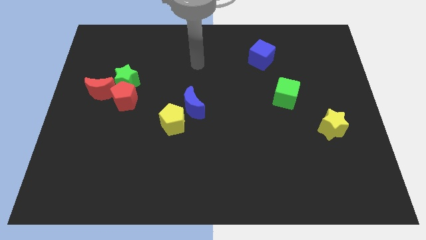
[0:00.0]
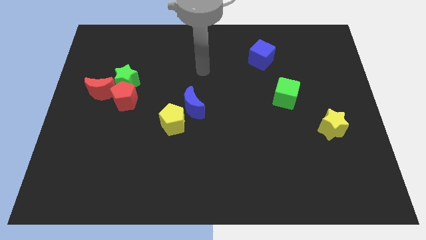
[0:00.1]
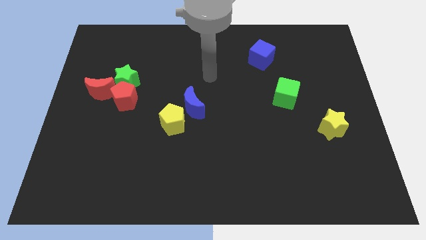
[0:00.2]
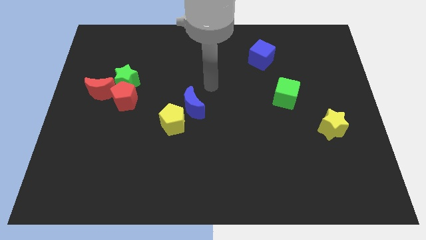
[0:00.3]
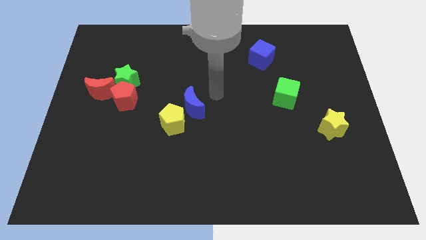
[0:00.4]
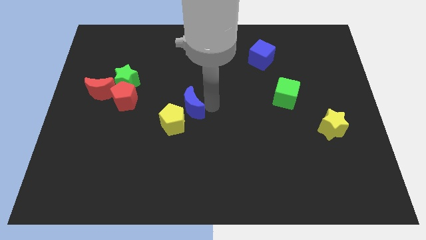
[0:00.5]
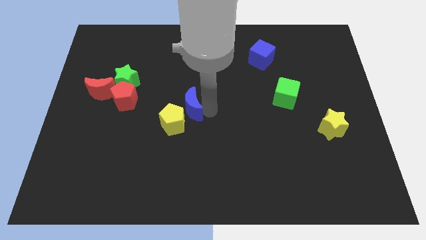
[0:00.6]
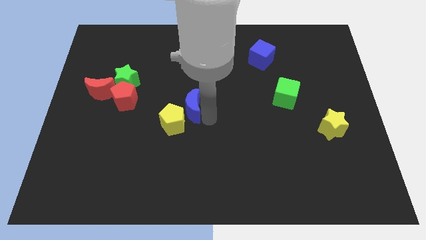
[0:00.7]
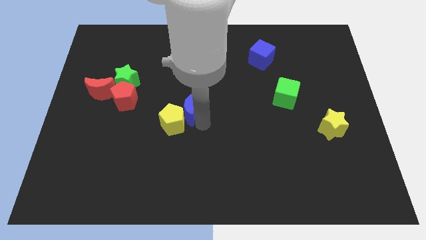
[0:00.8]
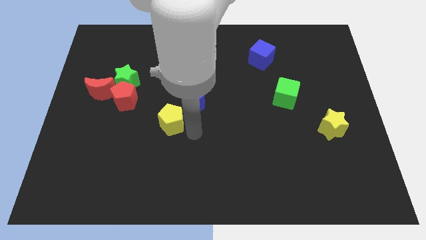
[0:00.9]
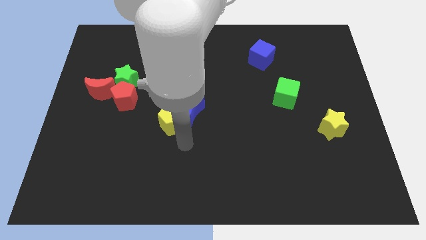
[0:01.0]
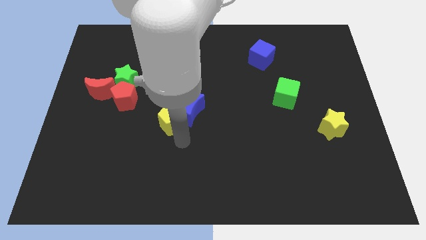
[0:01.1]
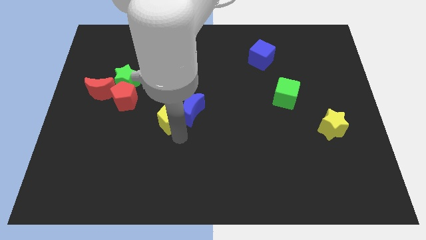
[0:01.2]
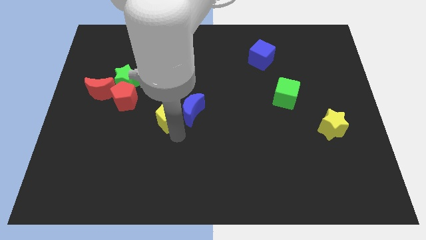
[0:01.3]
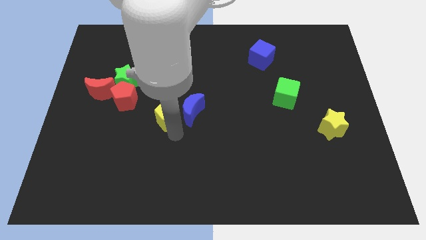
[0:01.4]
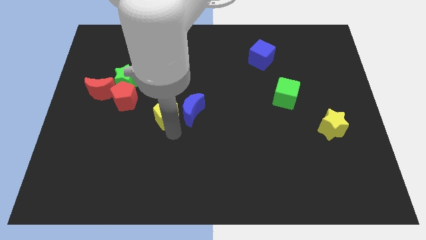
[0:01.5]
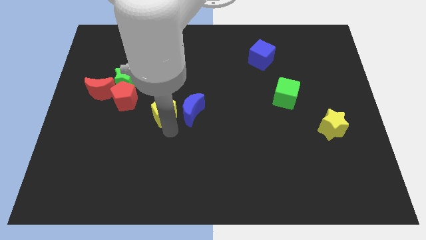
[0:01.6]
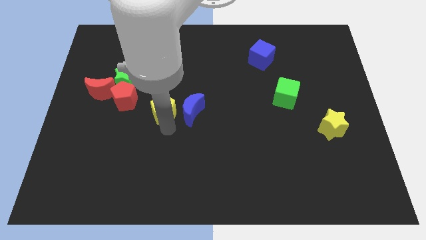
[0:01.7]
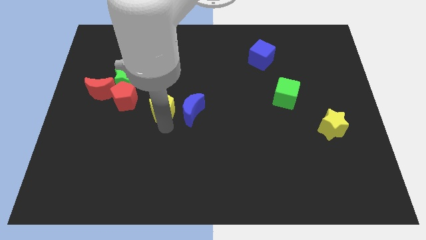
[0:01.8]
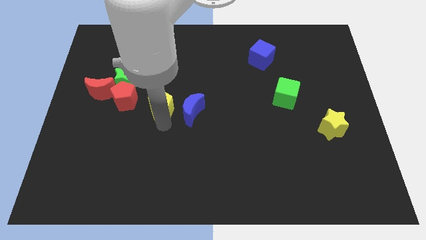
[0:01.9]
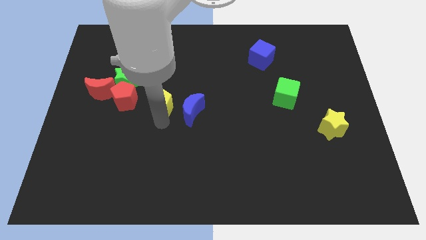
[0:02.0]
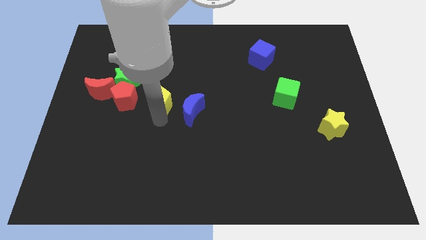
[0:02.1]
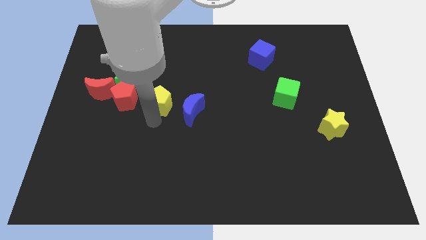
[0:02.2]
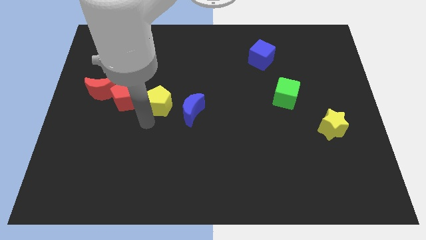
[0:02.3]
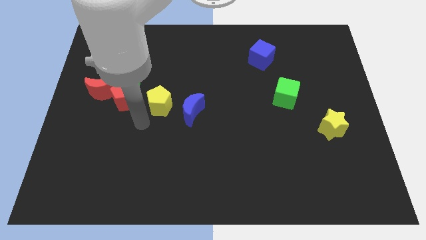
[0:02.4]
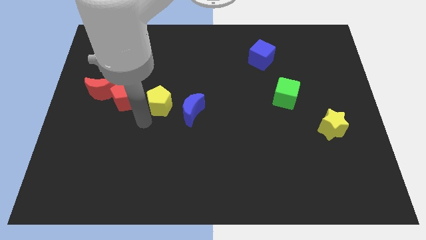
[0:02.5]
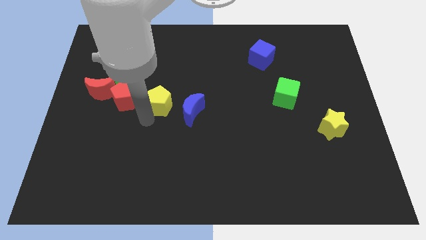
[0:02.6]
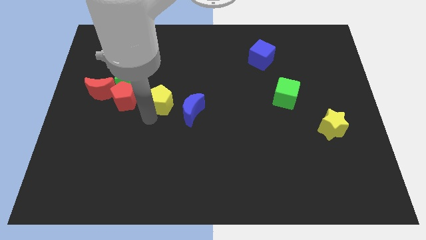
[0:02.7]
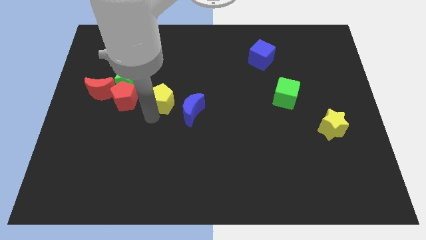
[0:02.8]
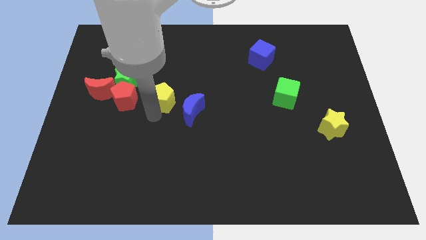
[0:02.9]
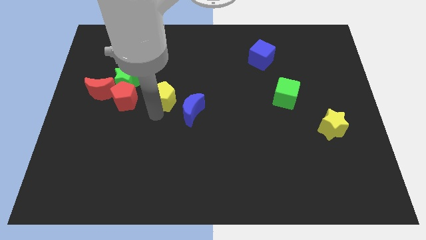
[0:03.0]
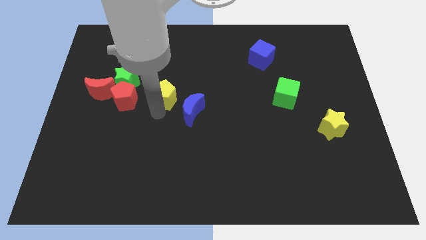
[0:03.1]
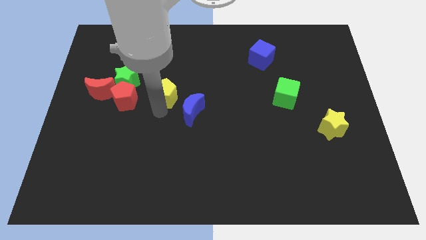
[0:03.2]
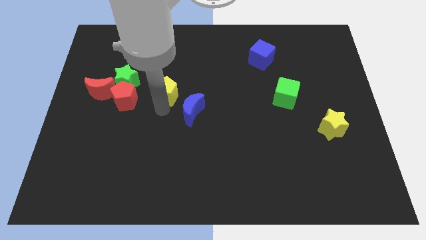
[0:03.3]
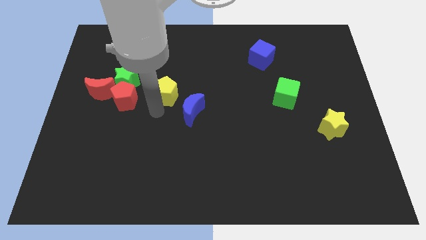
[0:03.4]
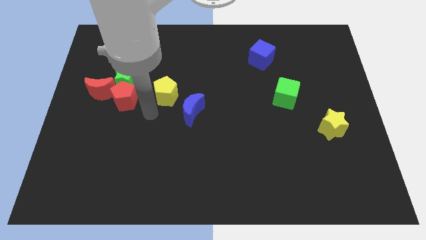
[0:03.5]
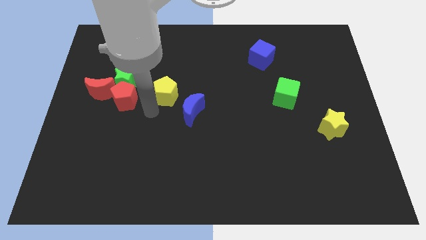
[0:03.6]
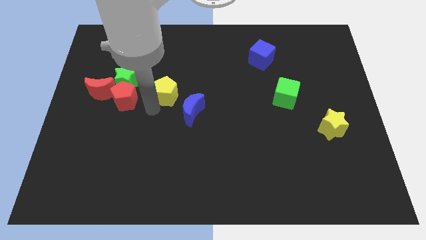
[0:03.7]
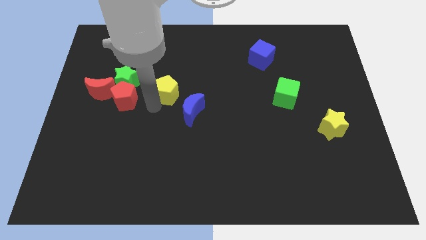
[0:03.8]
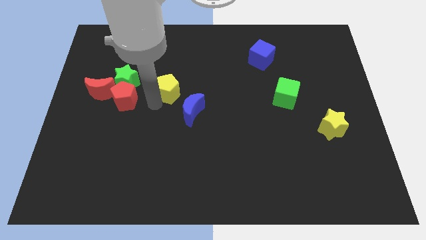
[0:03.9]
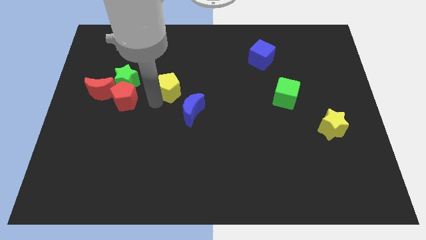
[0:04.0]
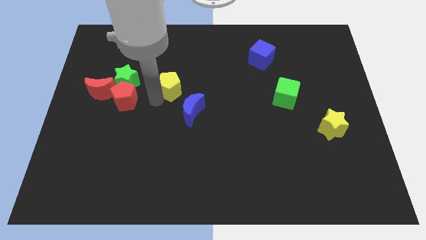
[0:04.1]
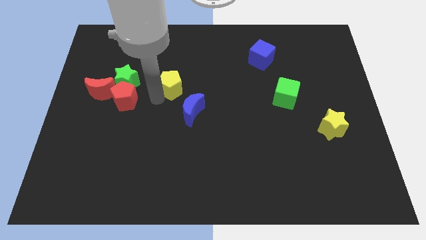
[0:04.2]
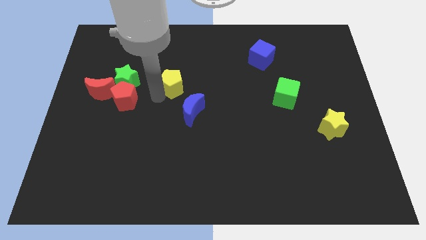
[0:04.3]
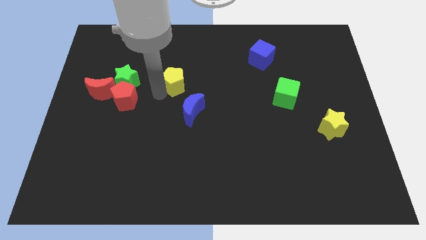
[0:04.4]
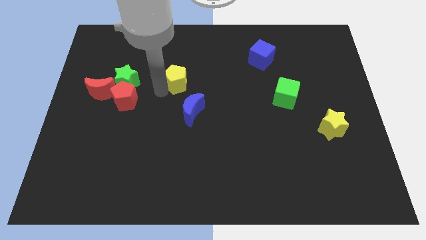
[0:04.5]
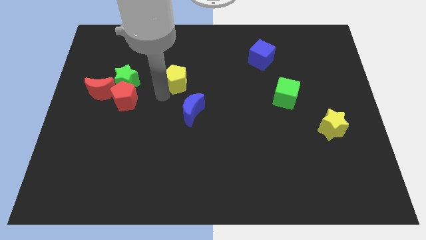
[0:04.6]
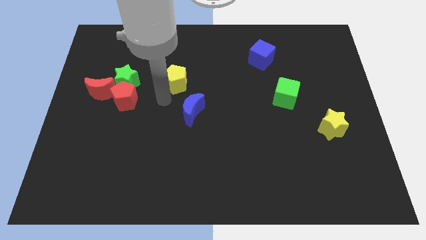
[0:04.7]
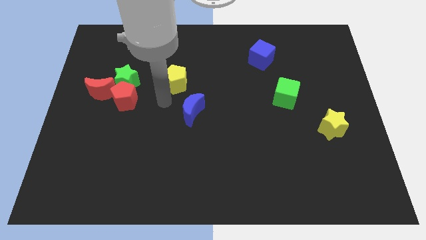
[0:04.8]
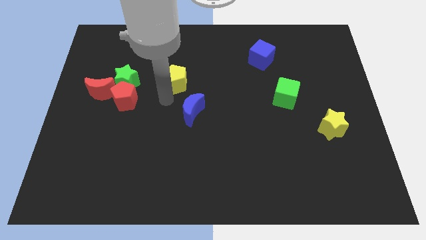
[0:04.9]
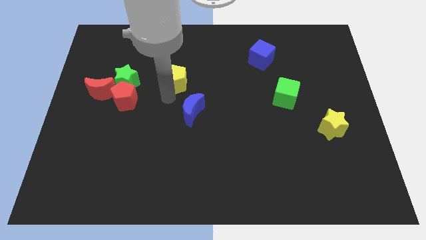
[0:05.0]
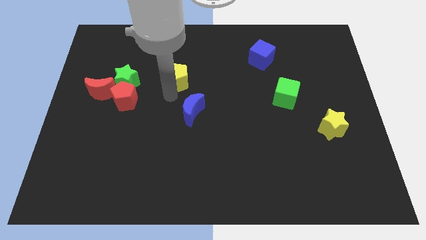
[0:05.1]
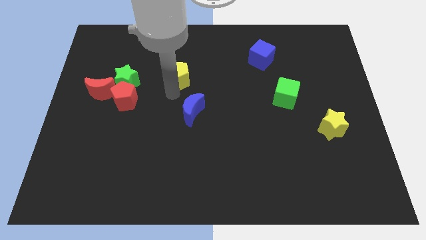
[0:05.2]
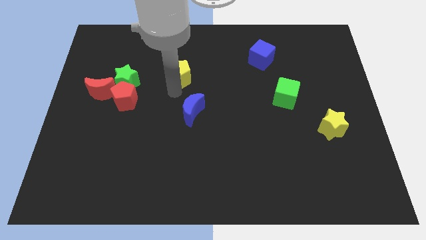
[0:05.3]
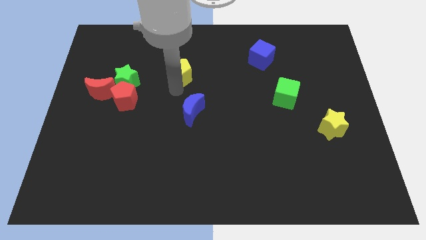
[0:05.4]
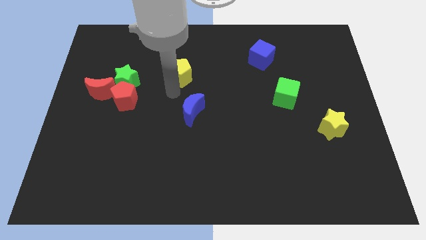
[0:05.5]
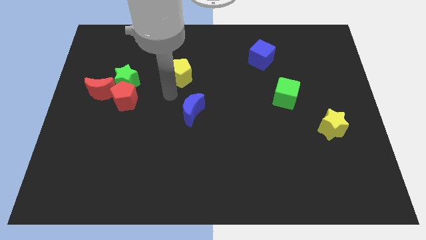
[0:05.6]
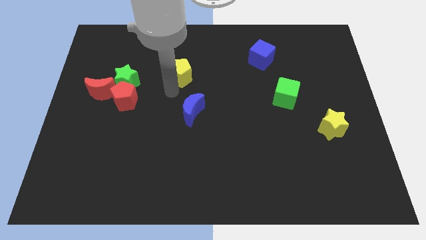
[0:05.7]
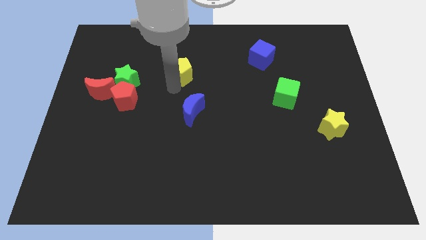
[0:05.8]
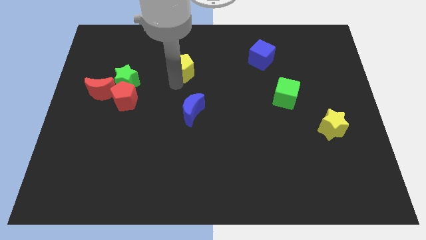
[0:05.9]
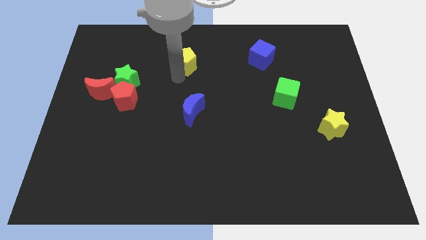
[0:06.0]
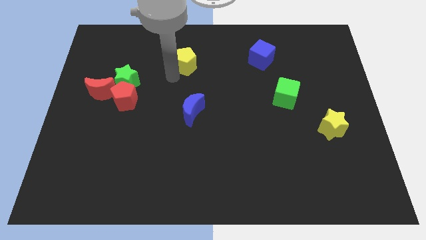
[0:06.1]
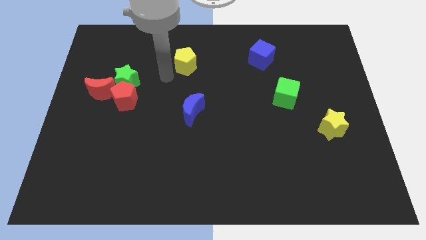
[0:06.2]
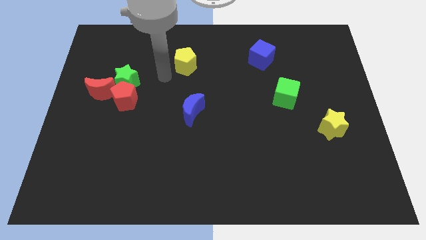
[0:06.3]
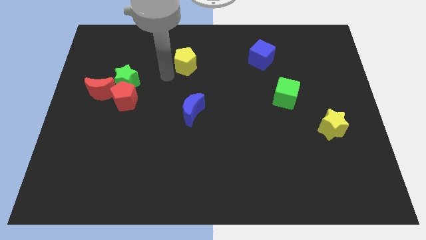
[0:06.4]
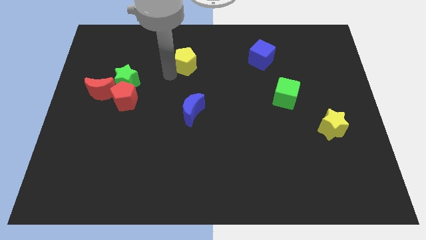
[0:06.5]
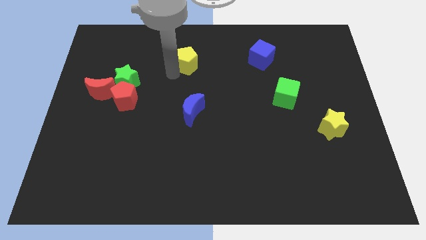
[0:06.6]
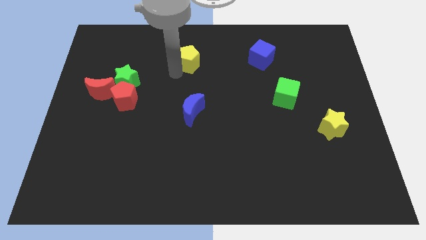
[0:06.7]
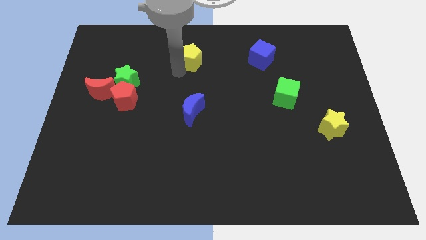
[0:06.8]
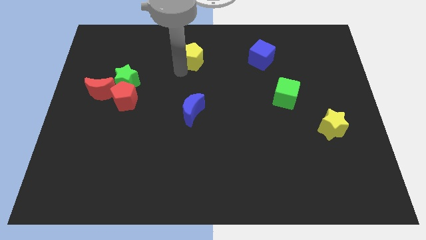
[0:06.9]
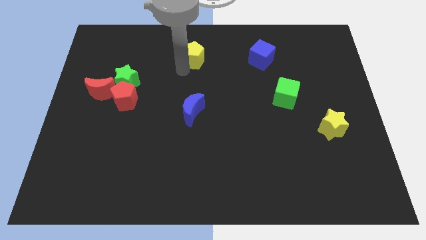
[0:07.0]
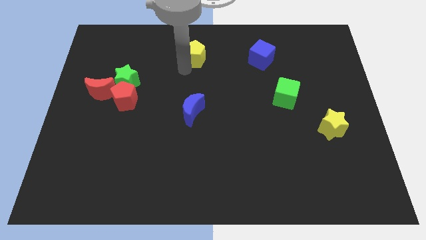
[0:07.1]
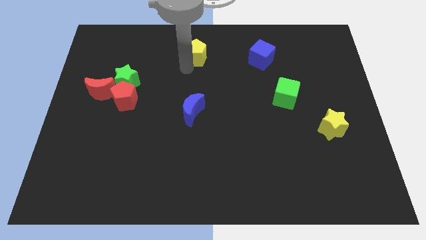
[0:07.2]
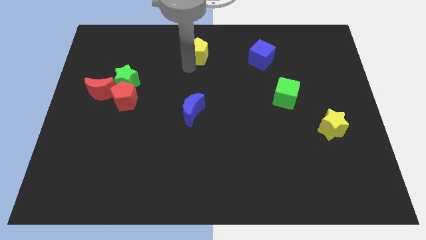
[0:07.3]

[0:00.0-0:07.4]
move the yellow pentagon to the towards your base
